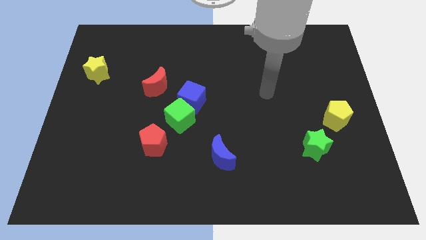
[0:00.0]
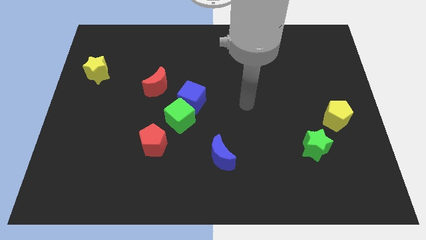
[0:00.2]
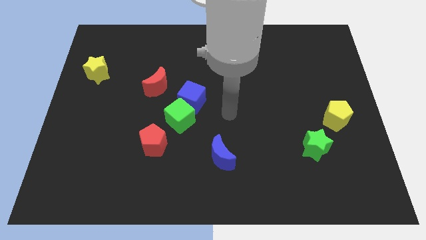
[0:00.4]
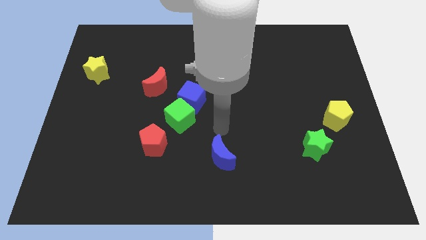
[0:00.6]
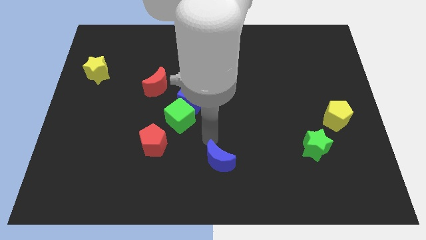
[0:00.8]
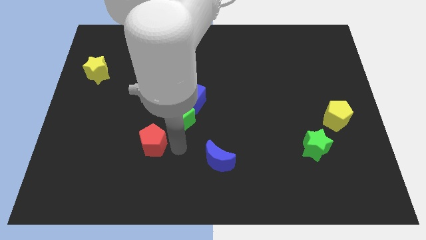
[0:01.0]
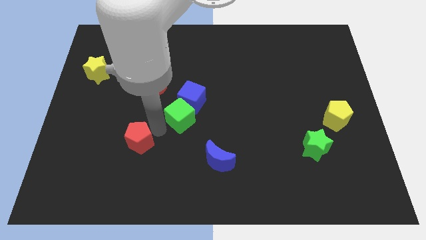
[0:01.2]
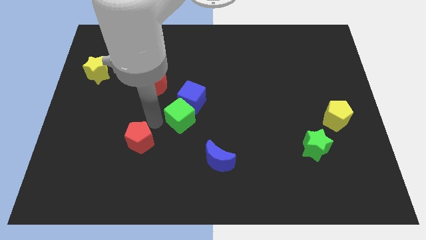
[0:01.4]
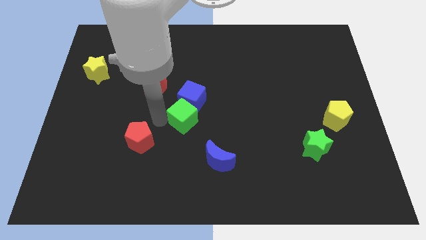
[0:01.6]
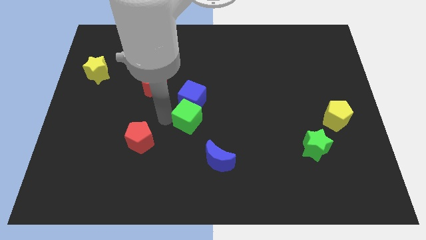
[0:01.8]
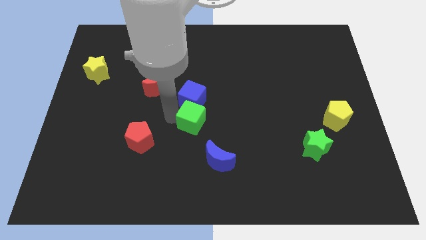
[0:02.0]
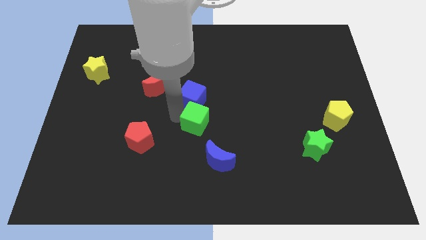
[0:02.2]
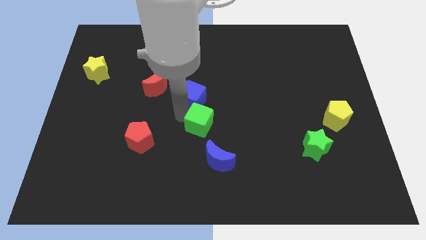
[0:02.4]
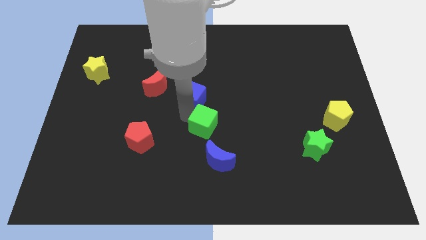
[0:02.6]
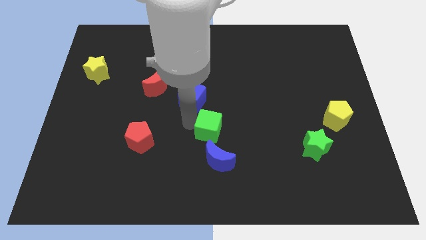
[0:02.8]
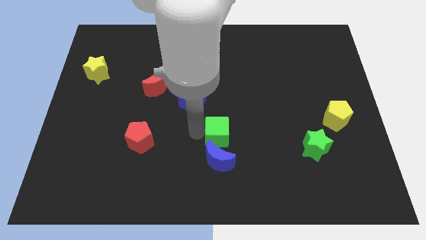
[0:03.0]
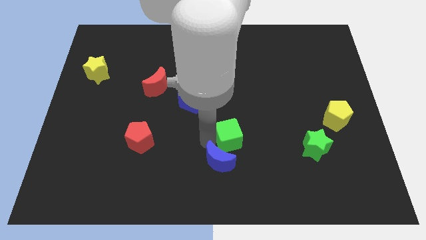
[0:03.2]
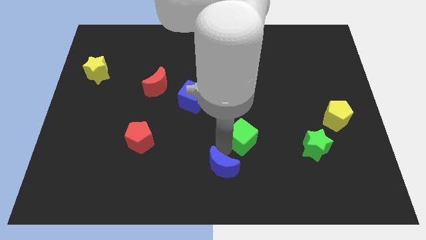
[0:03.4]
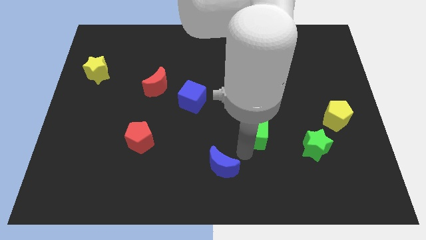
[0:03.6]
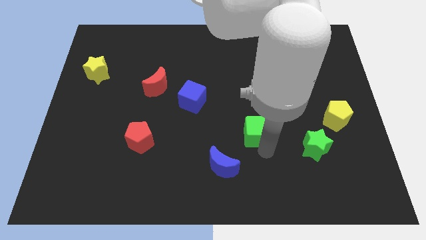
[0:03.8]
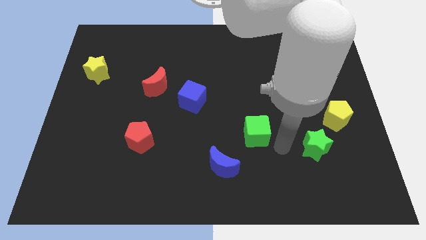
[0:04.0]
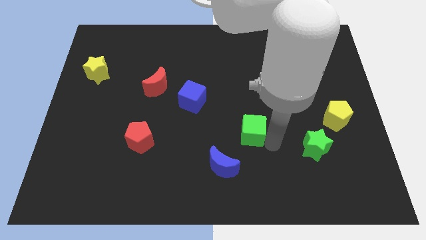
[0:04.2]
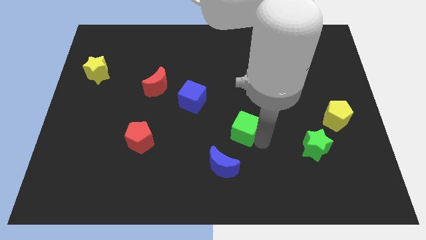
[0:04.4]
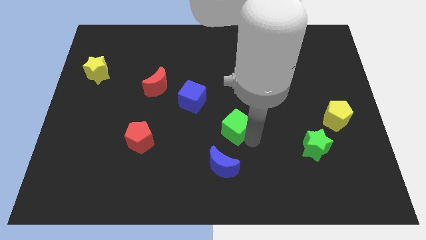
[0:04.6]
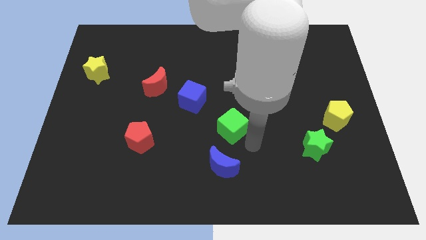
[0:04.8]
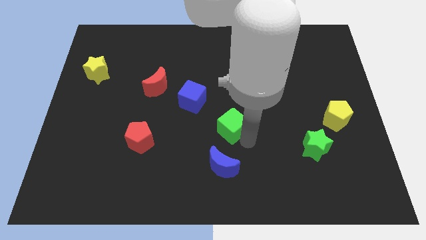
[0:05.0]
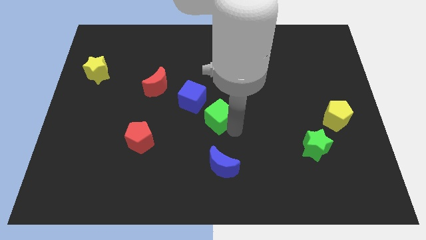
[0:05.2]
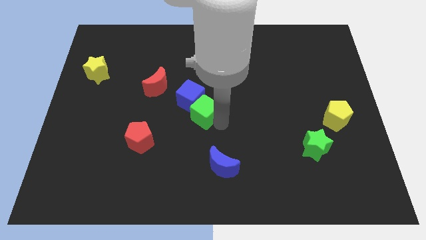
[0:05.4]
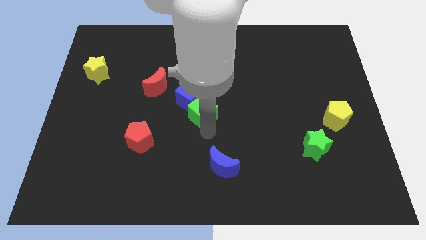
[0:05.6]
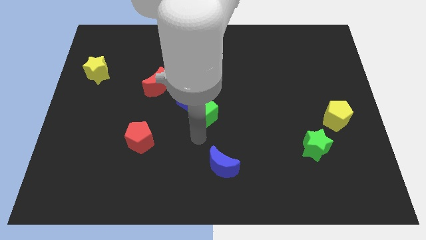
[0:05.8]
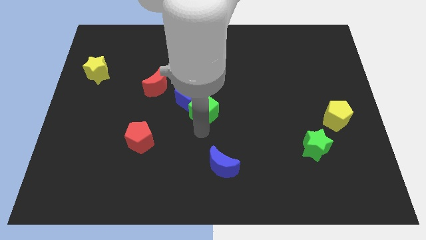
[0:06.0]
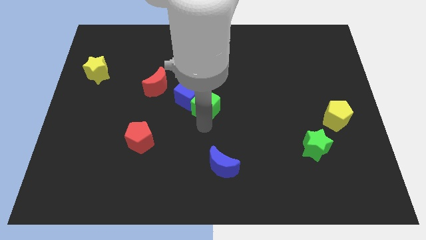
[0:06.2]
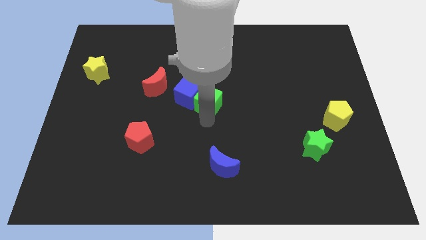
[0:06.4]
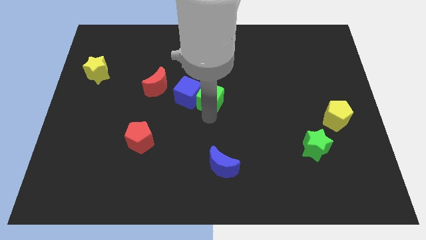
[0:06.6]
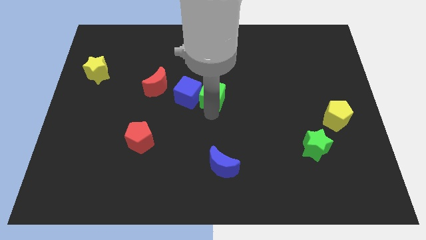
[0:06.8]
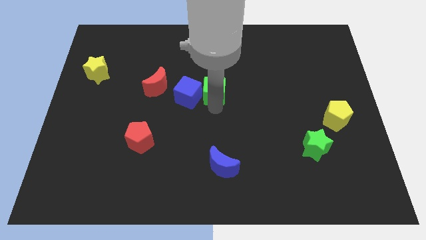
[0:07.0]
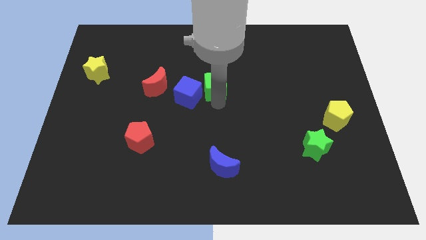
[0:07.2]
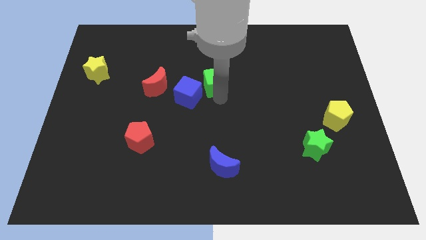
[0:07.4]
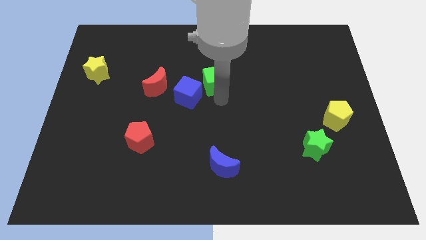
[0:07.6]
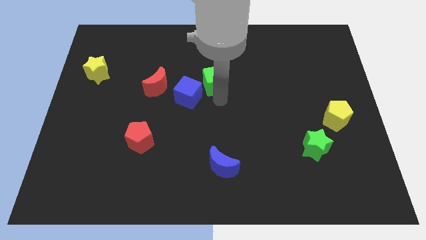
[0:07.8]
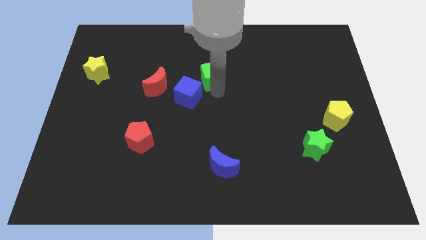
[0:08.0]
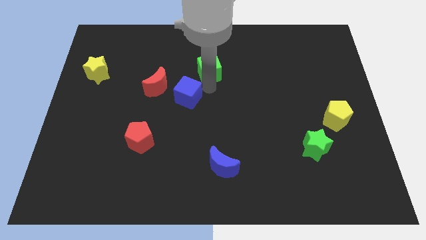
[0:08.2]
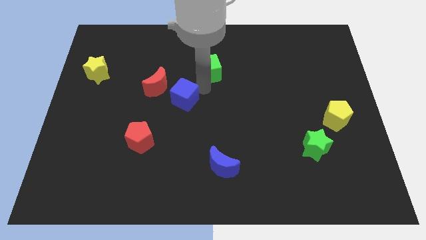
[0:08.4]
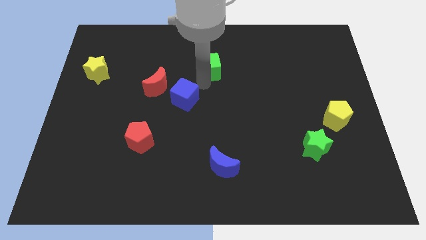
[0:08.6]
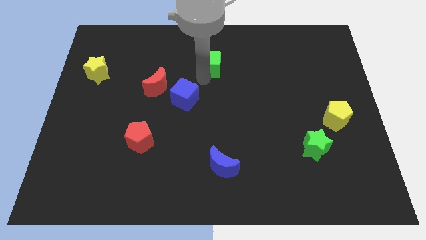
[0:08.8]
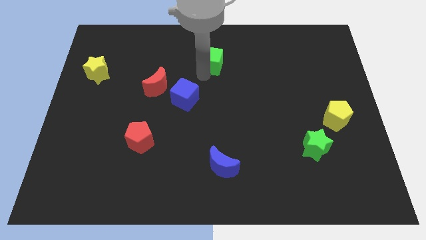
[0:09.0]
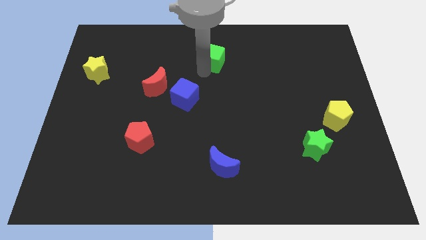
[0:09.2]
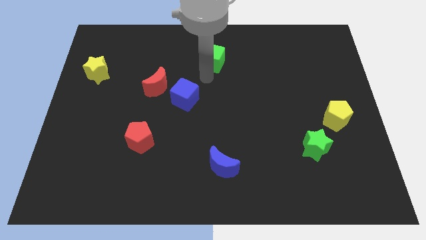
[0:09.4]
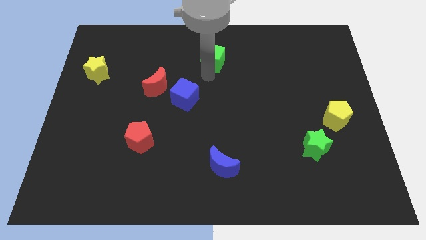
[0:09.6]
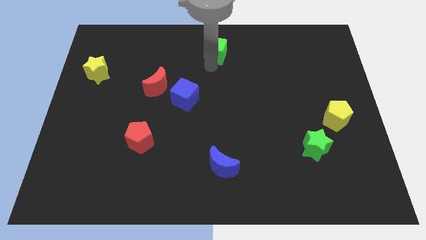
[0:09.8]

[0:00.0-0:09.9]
put the green cube to the top side

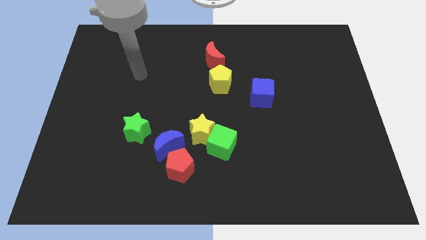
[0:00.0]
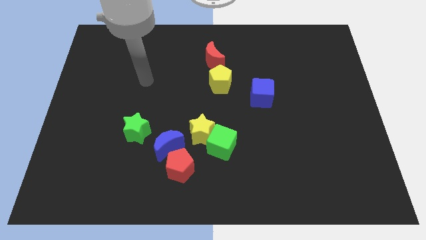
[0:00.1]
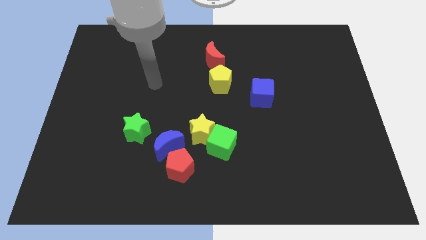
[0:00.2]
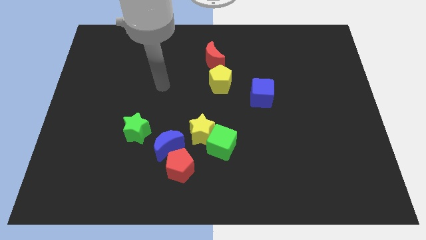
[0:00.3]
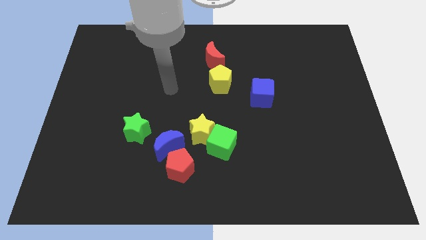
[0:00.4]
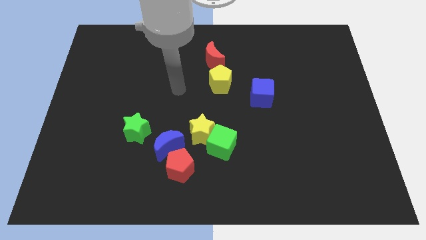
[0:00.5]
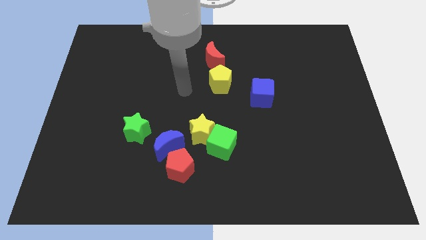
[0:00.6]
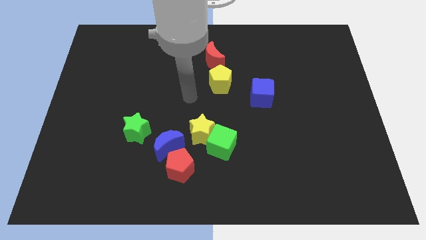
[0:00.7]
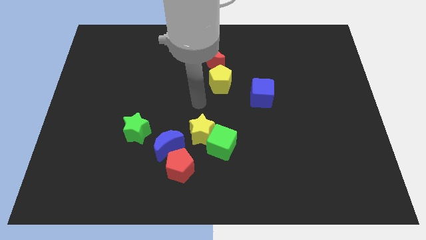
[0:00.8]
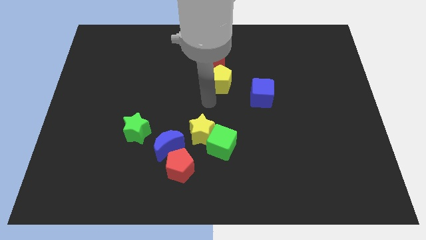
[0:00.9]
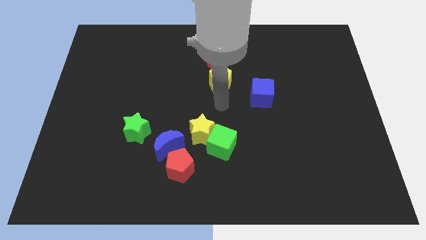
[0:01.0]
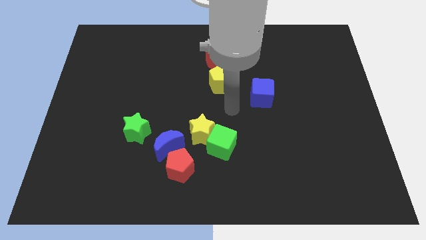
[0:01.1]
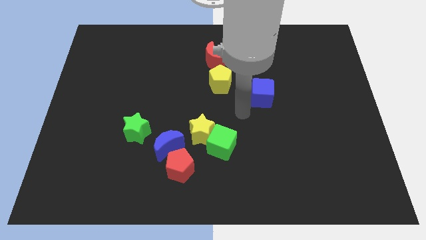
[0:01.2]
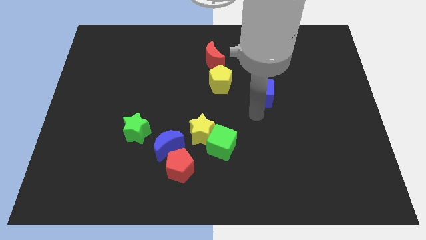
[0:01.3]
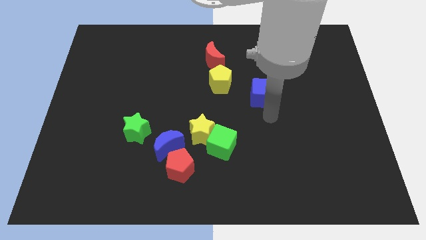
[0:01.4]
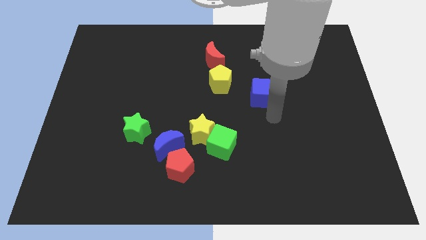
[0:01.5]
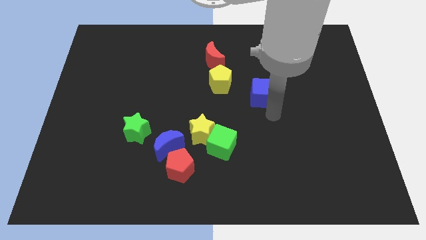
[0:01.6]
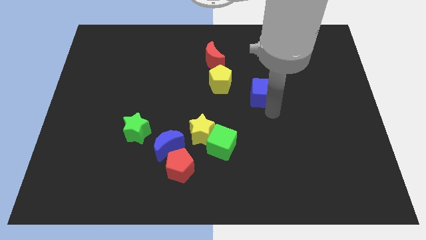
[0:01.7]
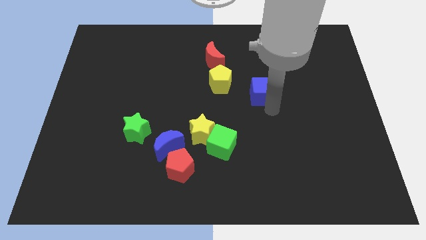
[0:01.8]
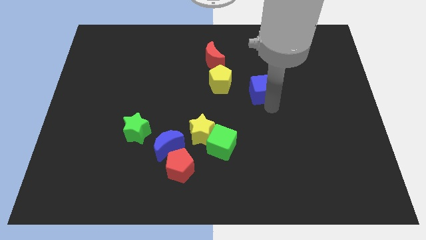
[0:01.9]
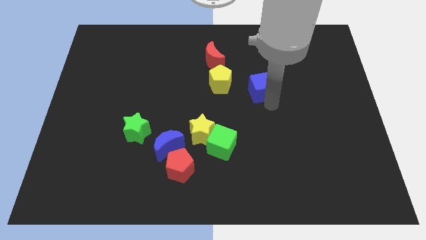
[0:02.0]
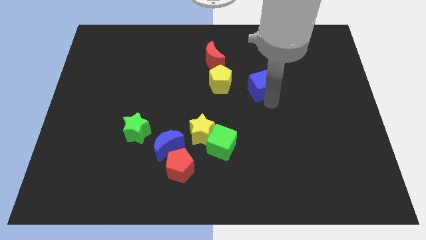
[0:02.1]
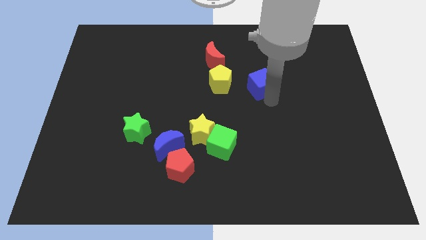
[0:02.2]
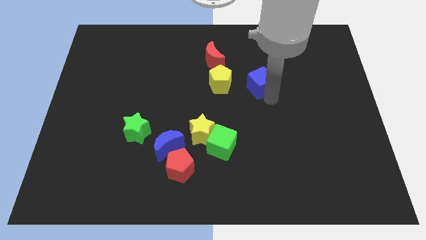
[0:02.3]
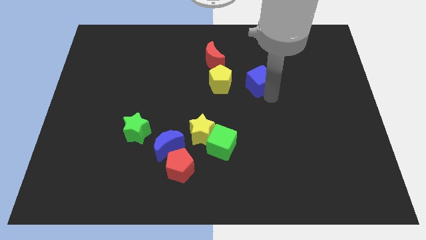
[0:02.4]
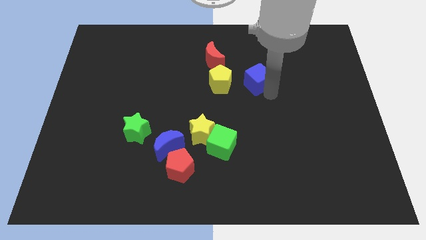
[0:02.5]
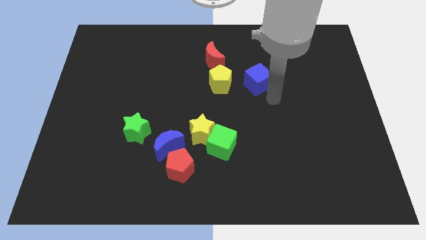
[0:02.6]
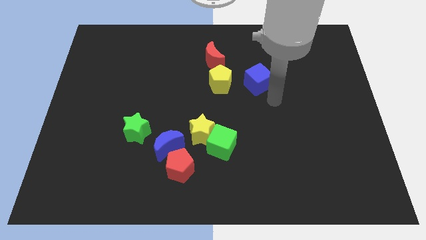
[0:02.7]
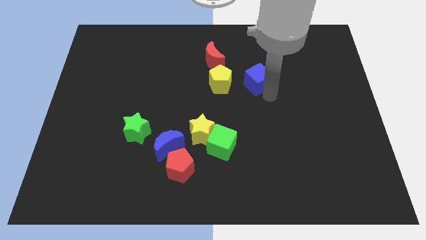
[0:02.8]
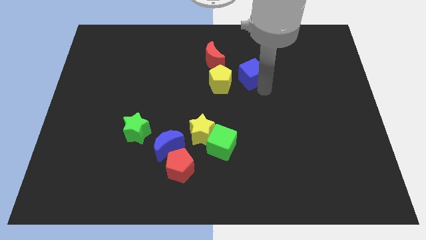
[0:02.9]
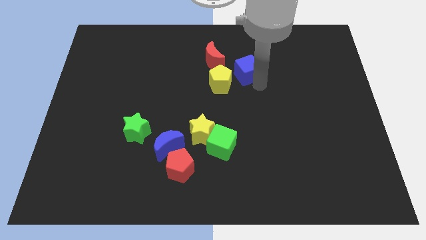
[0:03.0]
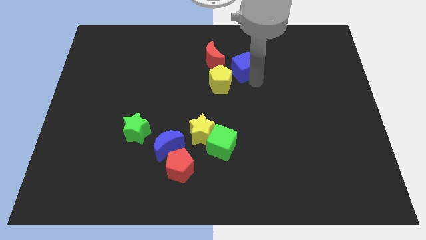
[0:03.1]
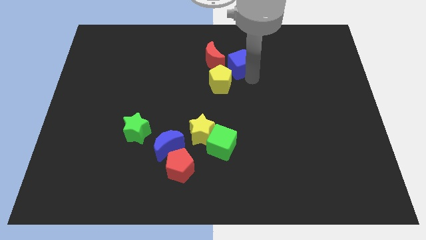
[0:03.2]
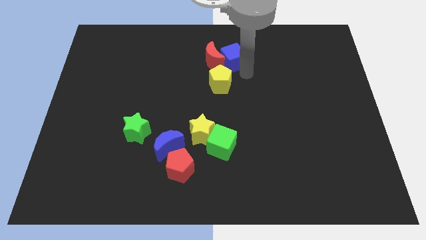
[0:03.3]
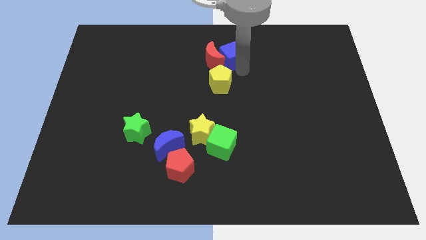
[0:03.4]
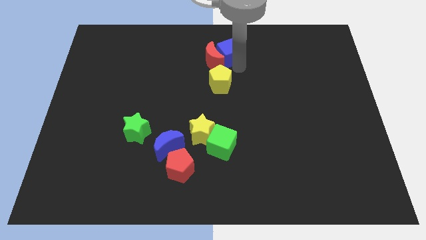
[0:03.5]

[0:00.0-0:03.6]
move the blue cube to the top
